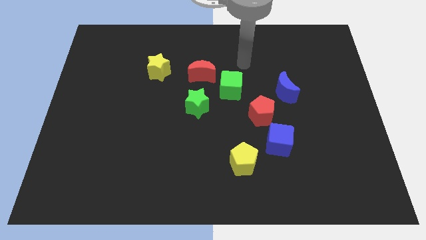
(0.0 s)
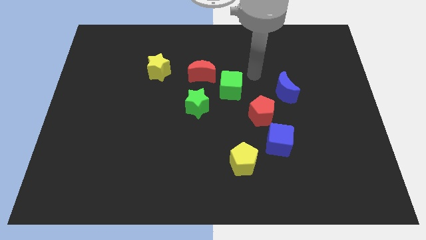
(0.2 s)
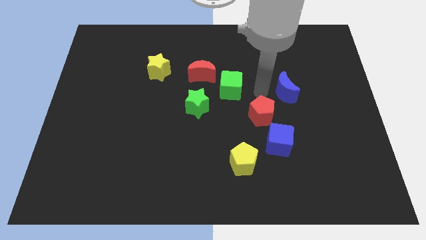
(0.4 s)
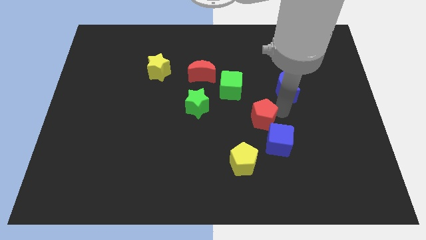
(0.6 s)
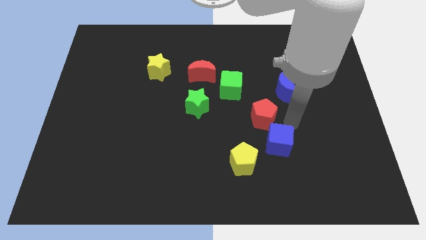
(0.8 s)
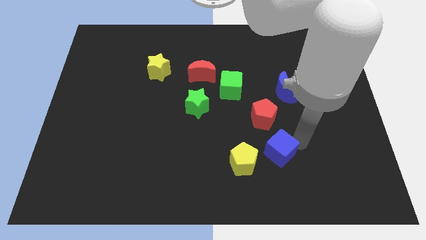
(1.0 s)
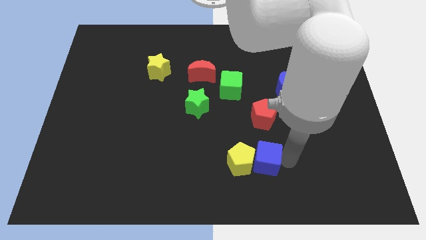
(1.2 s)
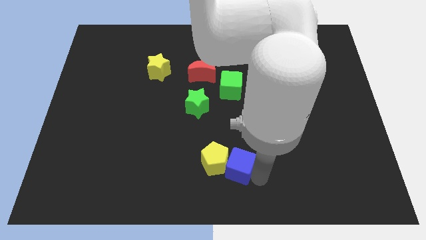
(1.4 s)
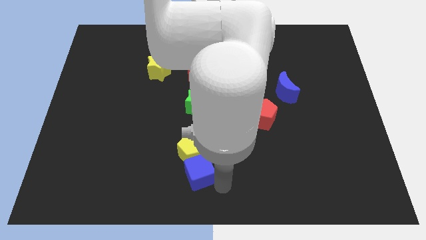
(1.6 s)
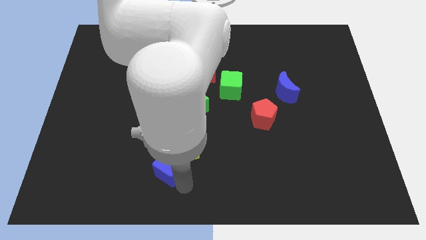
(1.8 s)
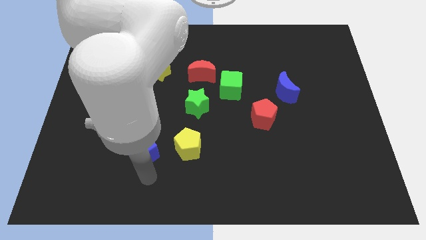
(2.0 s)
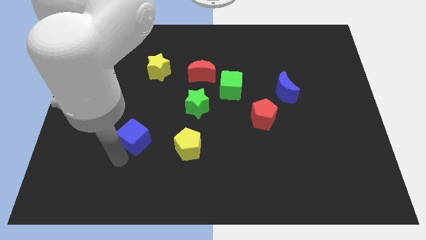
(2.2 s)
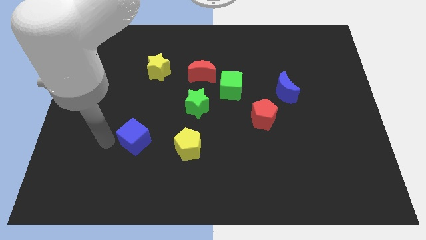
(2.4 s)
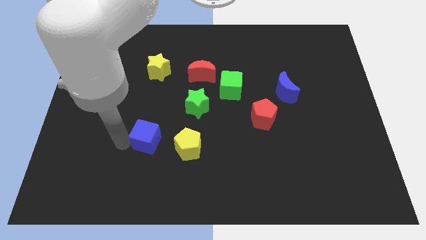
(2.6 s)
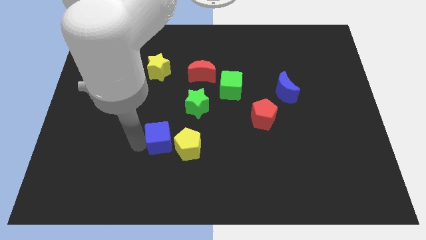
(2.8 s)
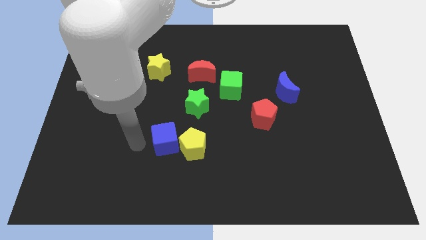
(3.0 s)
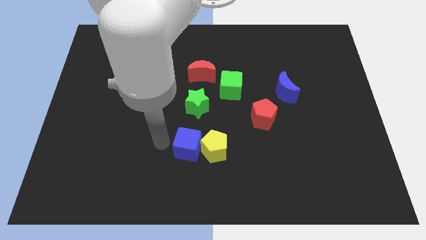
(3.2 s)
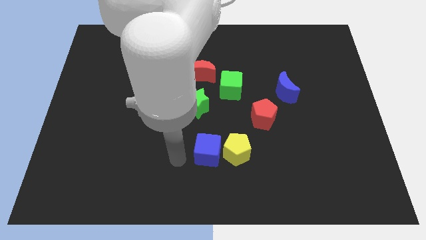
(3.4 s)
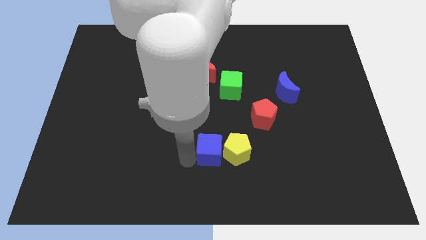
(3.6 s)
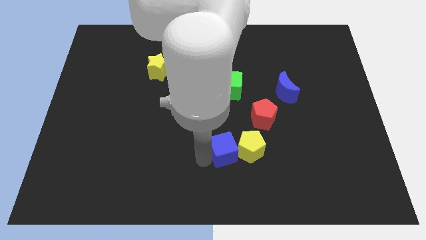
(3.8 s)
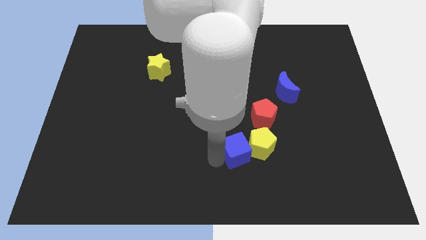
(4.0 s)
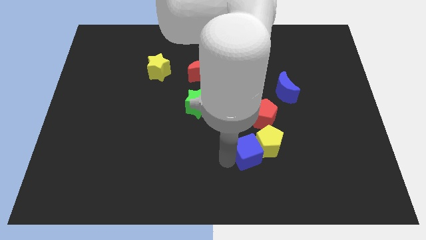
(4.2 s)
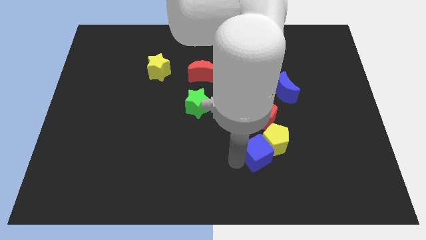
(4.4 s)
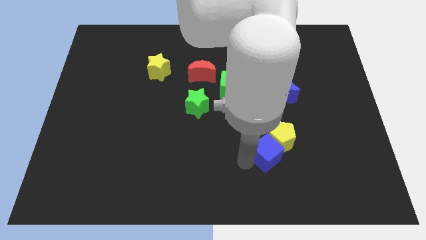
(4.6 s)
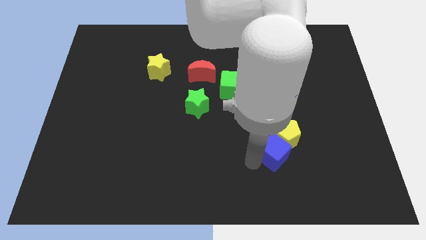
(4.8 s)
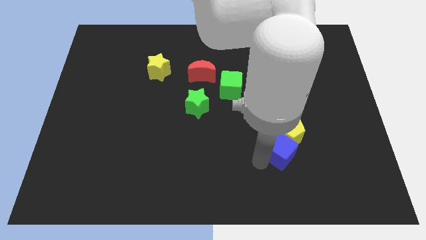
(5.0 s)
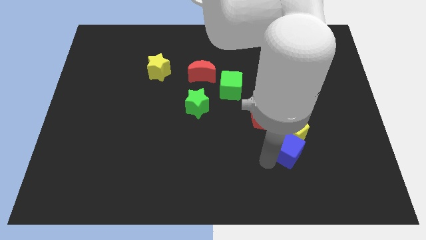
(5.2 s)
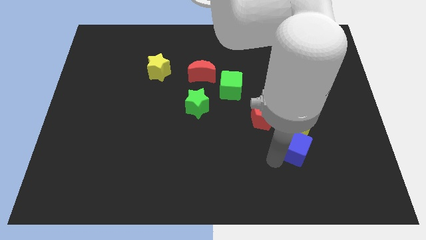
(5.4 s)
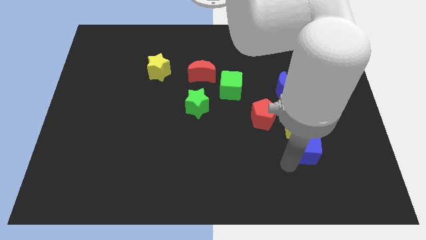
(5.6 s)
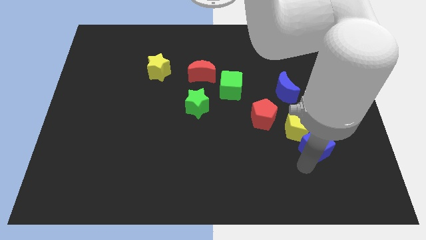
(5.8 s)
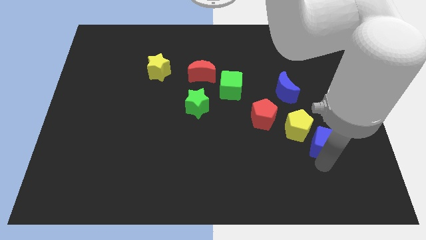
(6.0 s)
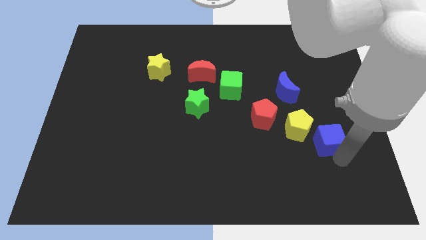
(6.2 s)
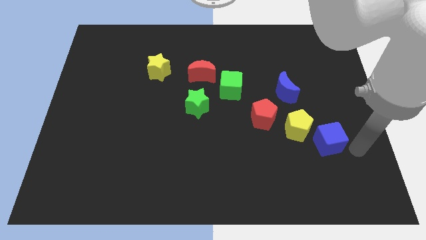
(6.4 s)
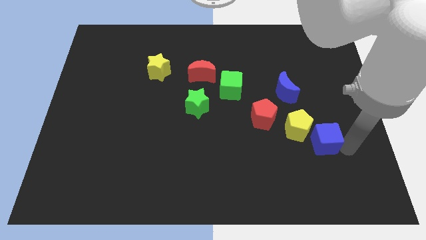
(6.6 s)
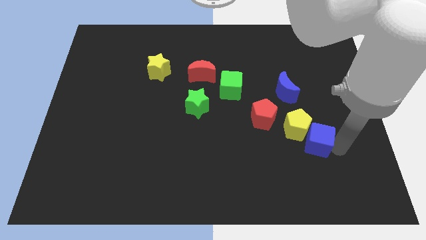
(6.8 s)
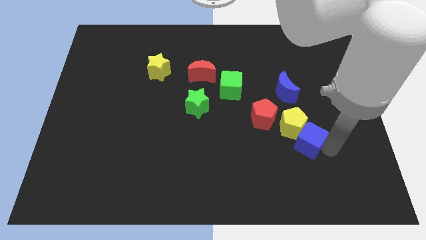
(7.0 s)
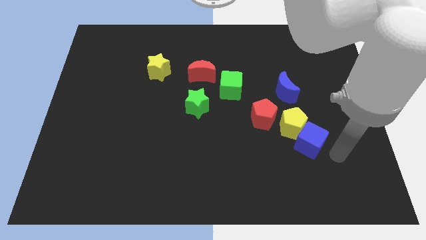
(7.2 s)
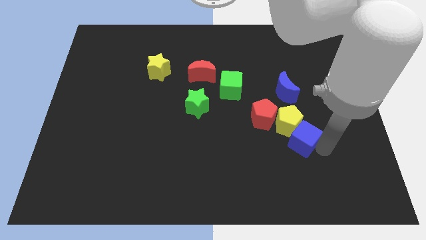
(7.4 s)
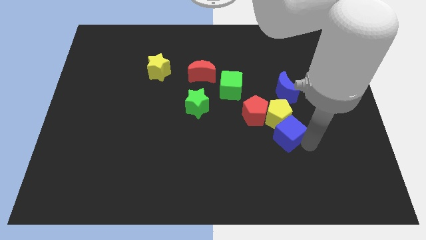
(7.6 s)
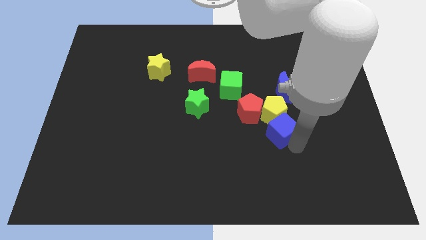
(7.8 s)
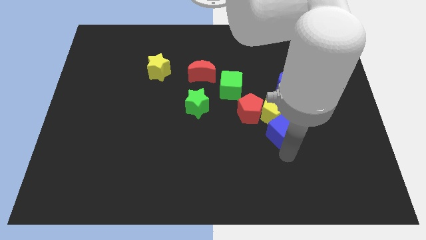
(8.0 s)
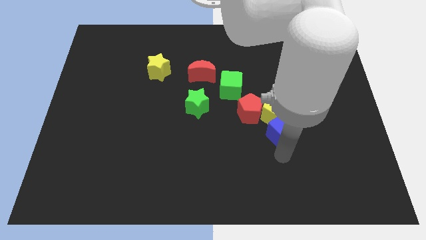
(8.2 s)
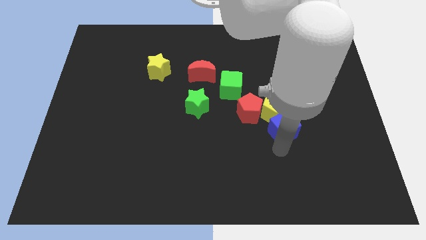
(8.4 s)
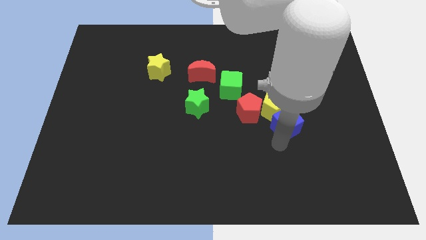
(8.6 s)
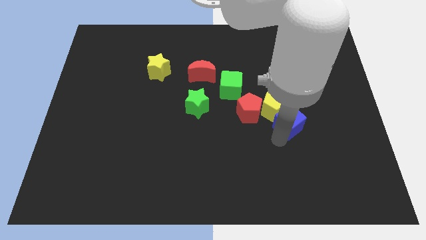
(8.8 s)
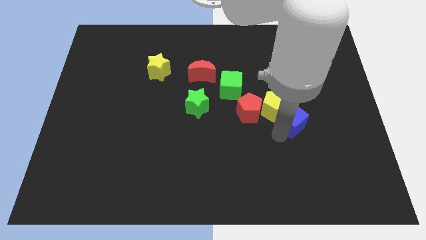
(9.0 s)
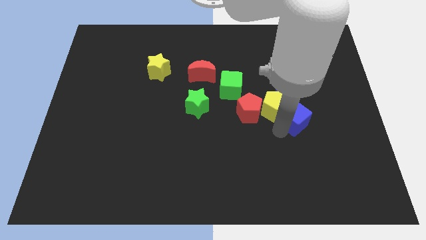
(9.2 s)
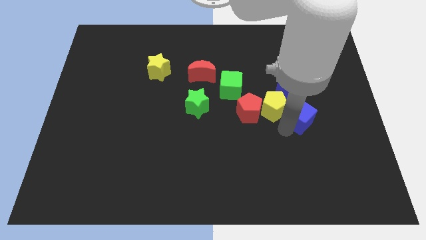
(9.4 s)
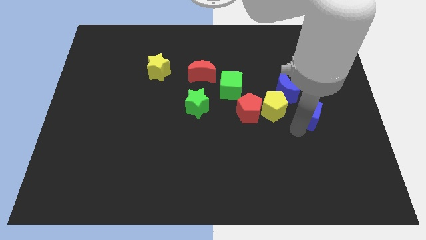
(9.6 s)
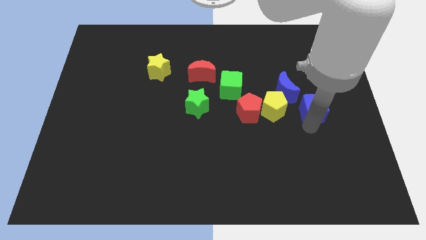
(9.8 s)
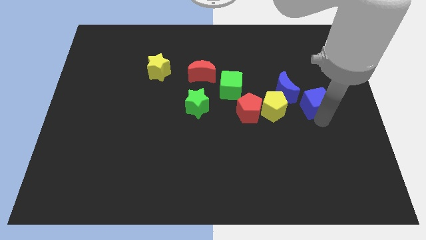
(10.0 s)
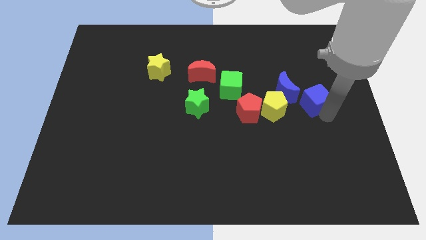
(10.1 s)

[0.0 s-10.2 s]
move the blue cube slightly upwards

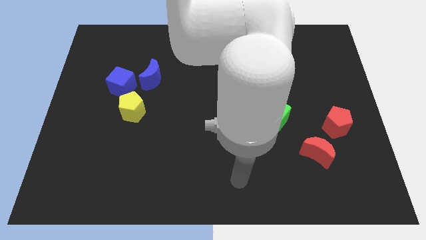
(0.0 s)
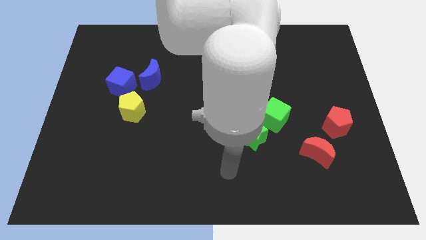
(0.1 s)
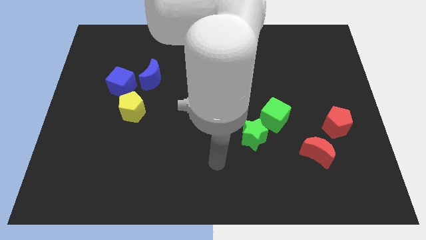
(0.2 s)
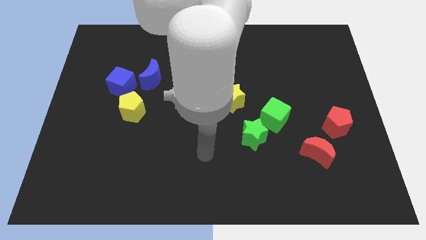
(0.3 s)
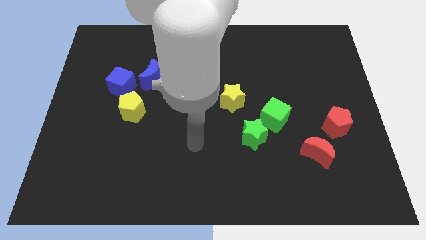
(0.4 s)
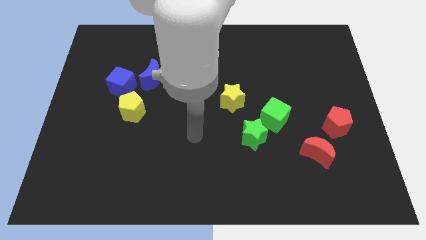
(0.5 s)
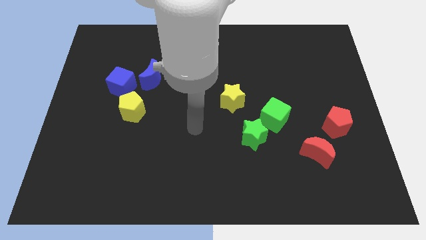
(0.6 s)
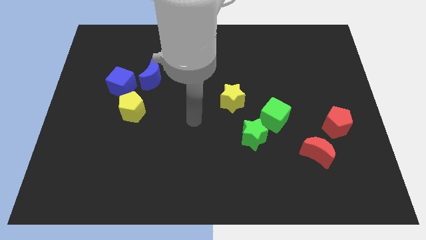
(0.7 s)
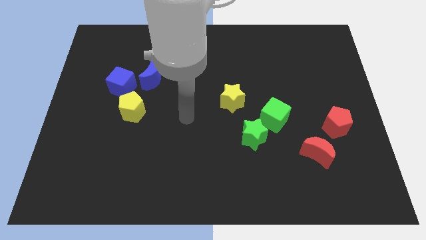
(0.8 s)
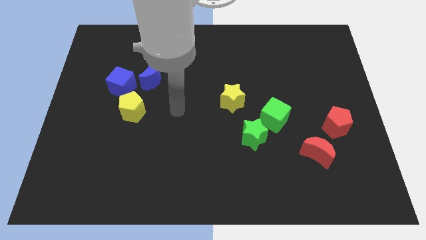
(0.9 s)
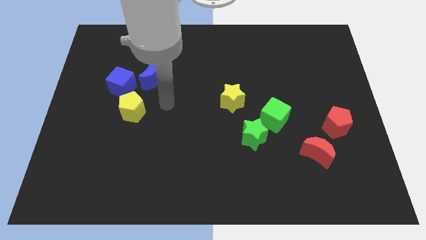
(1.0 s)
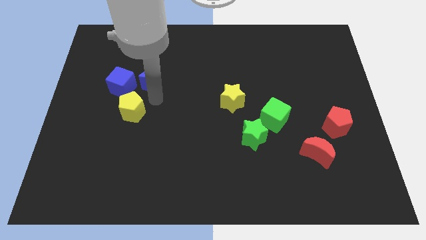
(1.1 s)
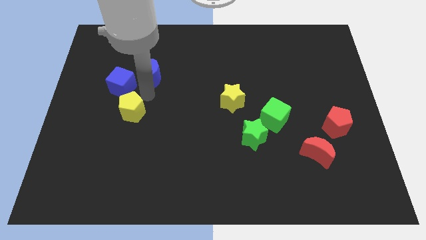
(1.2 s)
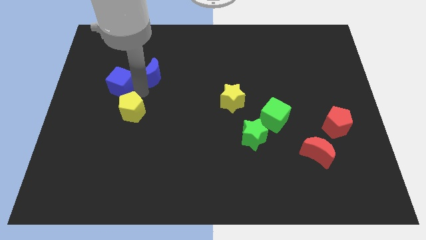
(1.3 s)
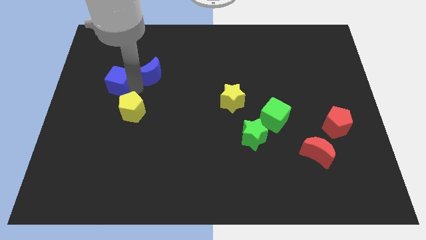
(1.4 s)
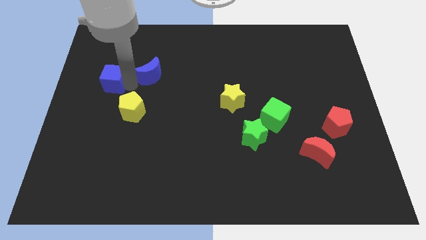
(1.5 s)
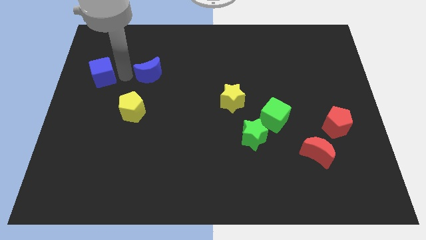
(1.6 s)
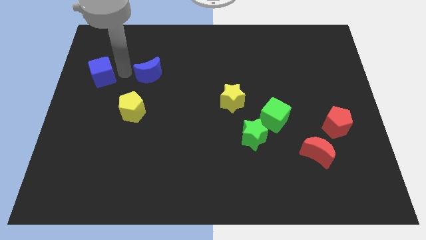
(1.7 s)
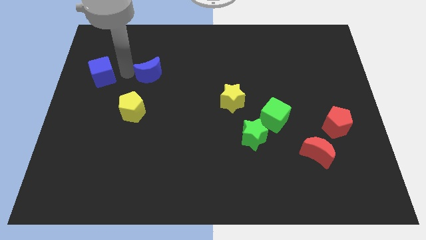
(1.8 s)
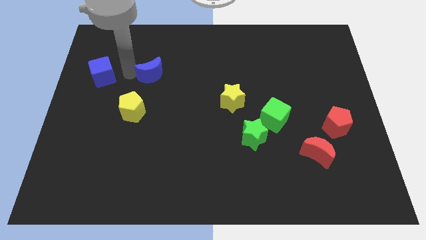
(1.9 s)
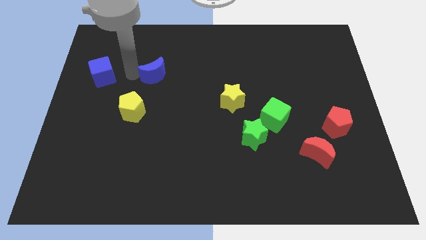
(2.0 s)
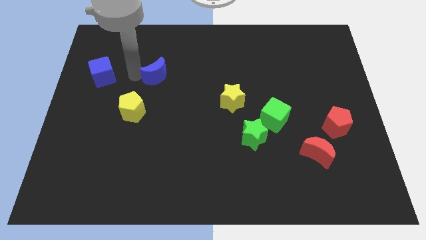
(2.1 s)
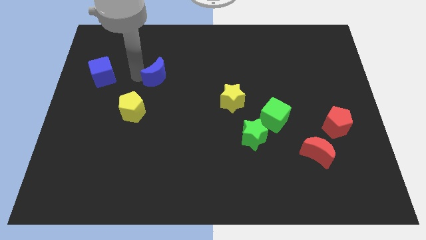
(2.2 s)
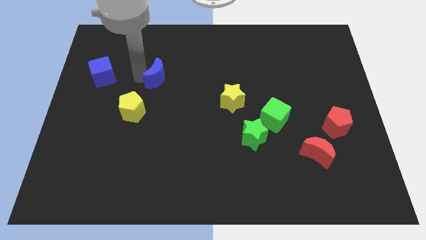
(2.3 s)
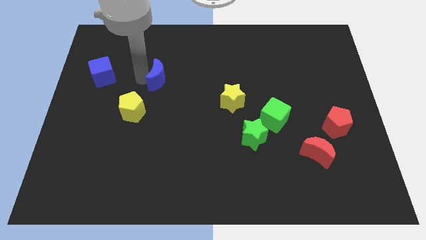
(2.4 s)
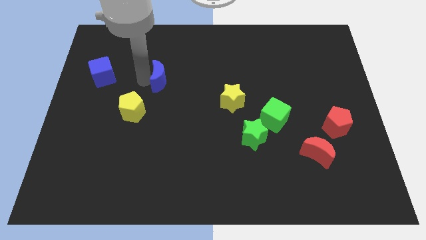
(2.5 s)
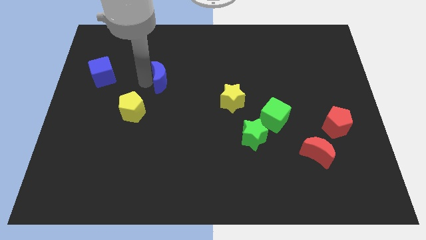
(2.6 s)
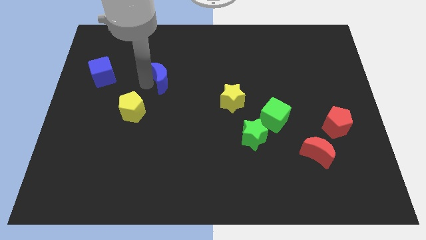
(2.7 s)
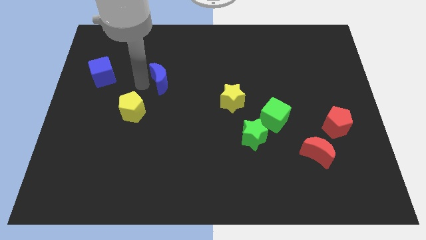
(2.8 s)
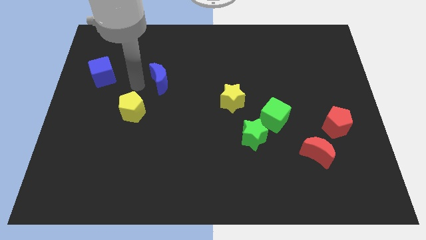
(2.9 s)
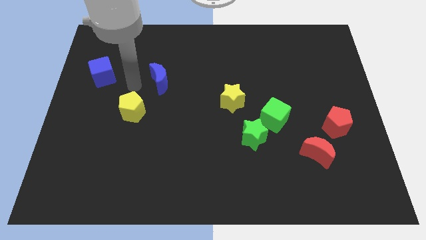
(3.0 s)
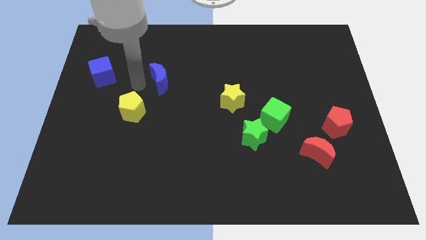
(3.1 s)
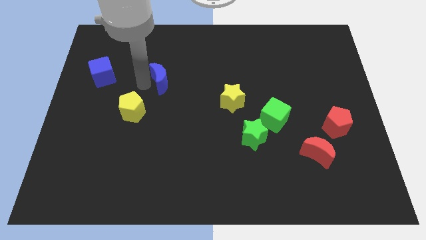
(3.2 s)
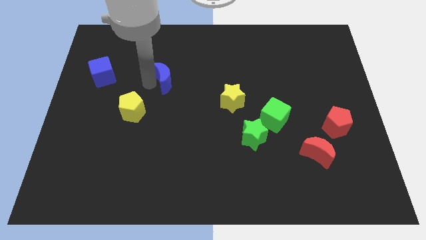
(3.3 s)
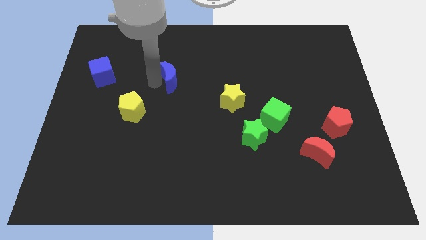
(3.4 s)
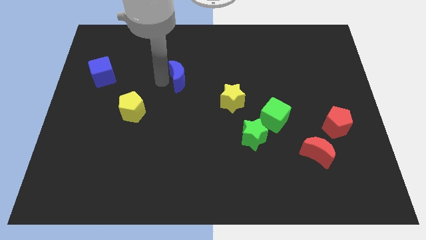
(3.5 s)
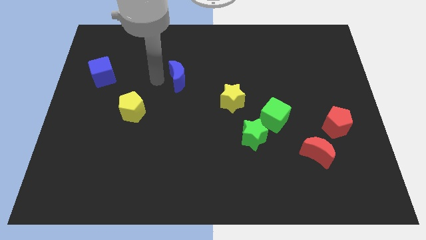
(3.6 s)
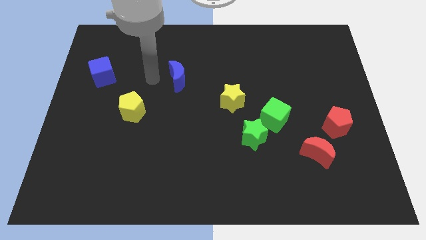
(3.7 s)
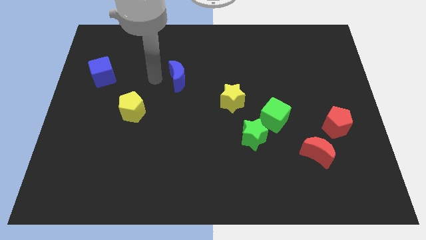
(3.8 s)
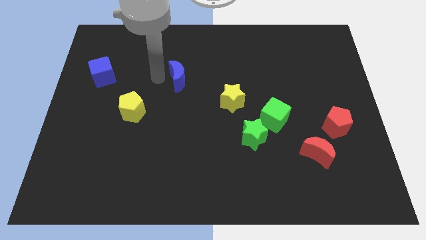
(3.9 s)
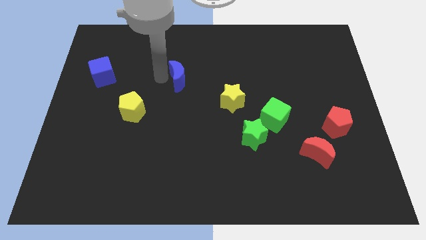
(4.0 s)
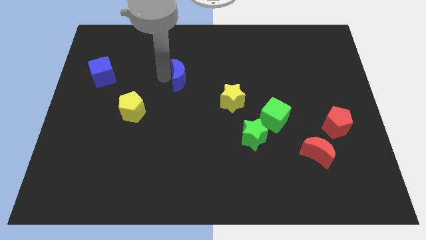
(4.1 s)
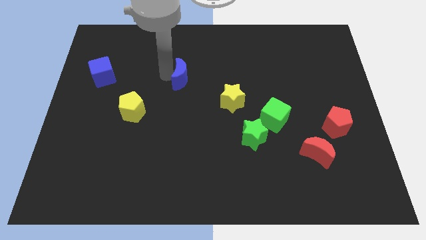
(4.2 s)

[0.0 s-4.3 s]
slightly slide the blue moon to the right
